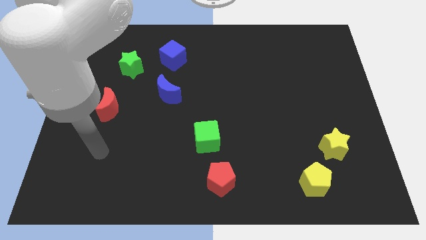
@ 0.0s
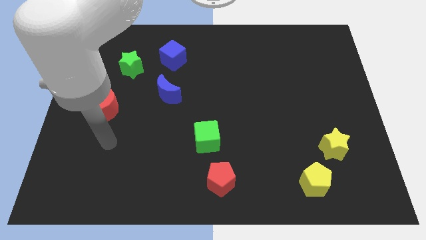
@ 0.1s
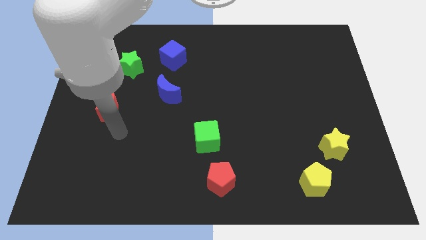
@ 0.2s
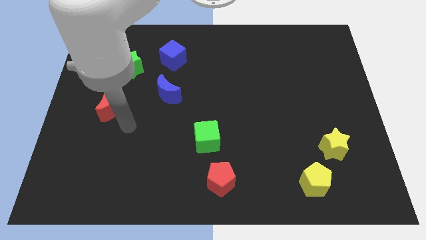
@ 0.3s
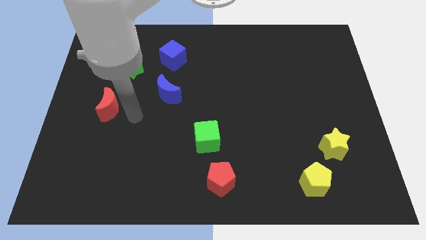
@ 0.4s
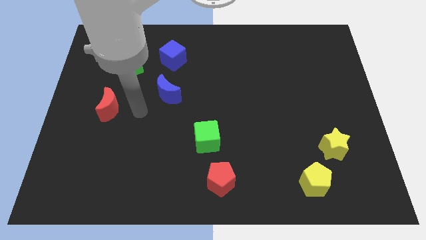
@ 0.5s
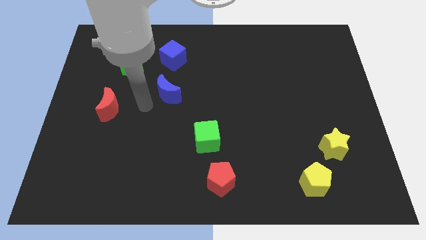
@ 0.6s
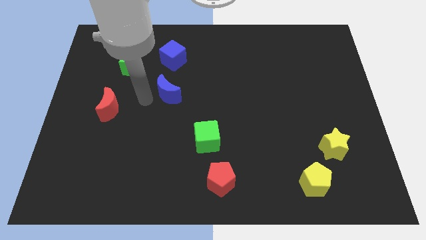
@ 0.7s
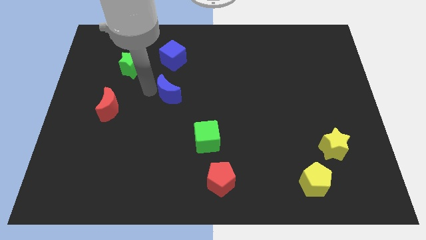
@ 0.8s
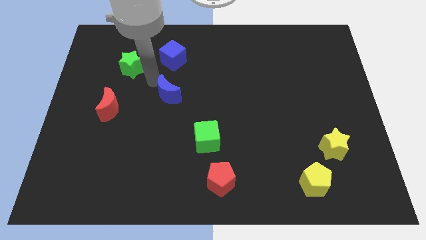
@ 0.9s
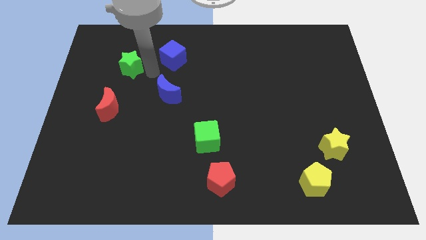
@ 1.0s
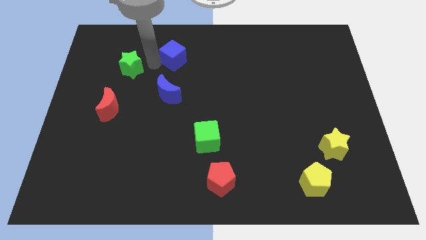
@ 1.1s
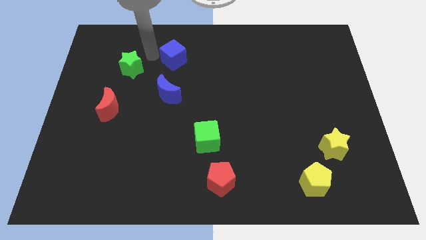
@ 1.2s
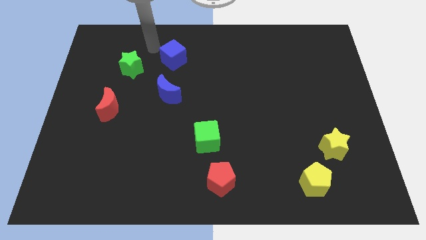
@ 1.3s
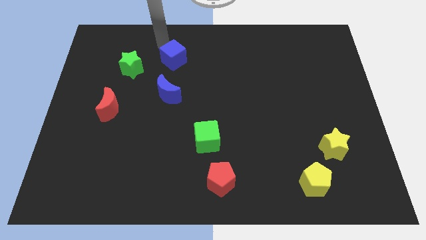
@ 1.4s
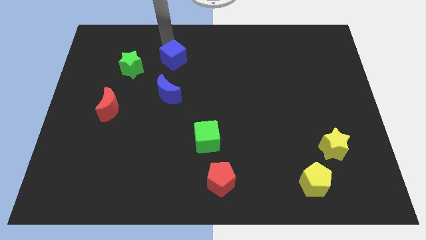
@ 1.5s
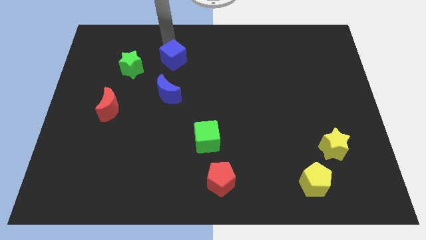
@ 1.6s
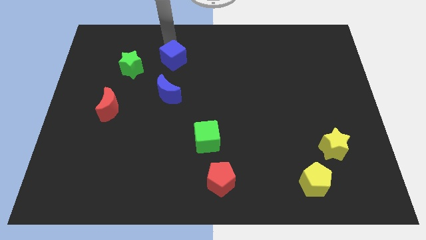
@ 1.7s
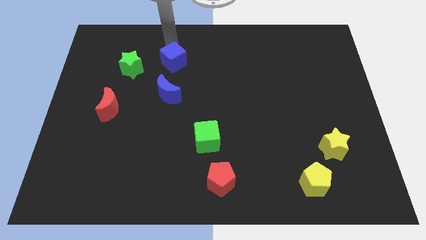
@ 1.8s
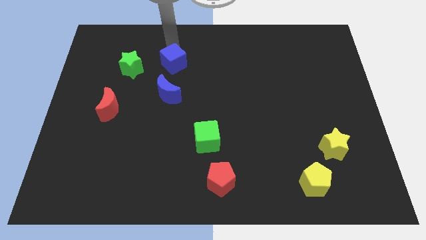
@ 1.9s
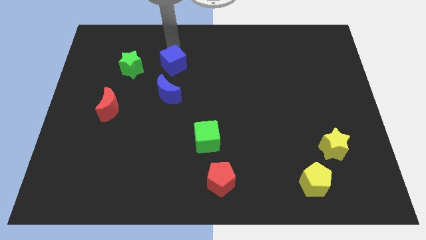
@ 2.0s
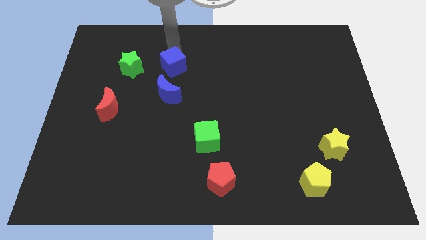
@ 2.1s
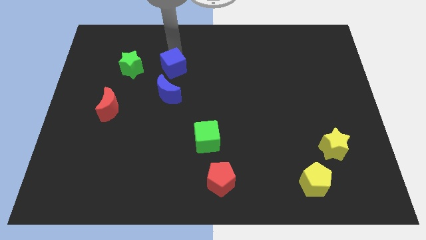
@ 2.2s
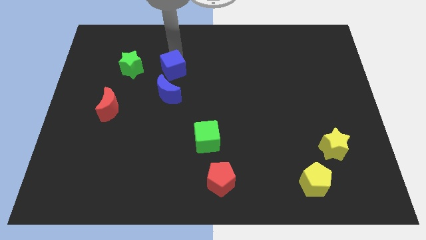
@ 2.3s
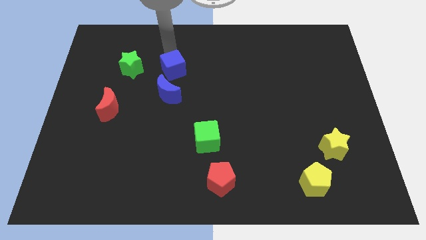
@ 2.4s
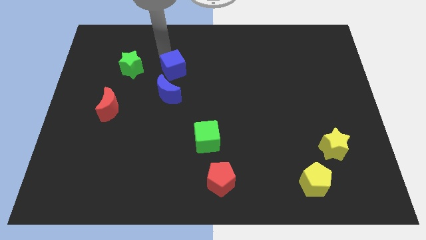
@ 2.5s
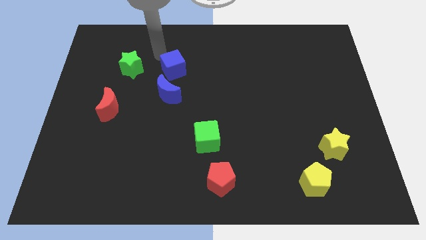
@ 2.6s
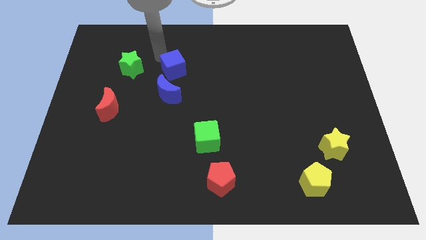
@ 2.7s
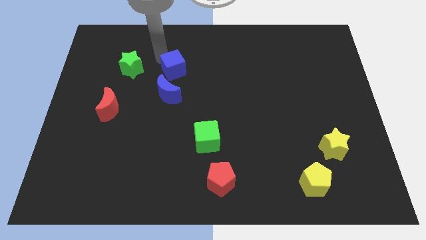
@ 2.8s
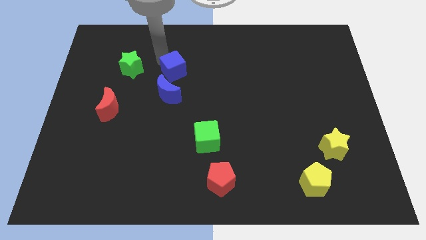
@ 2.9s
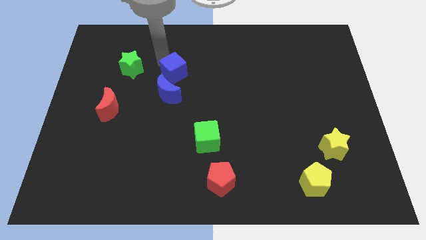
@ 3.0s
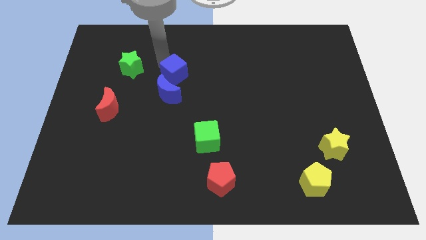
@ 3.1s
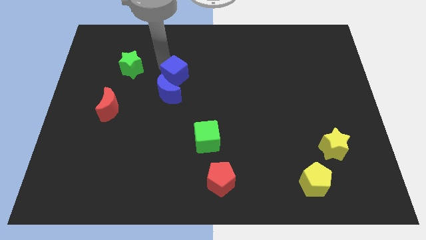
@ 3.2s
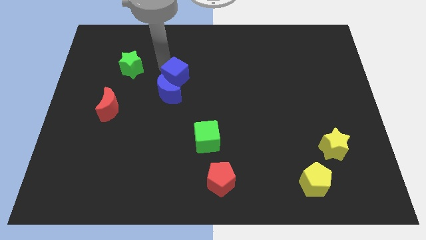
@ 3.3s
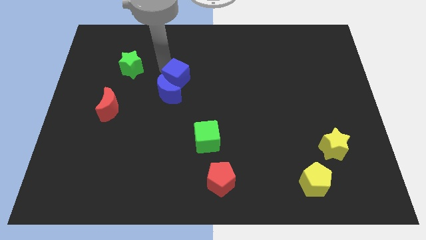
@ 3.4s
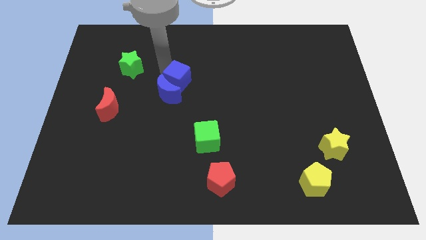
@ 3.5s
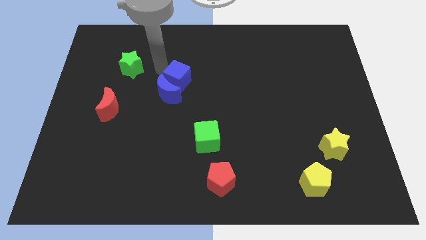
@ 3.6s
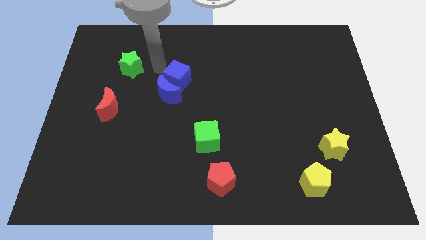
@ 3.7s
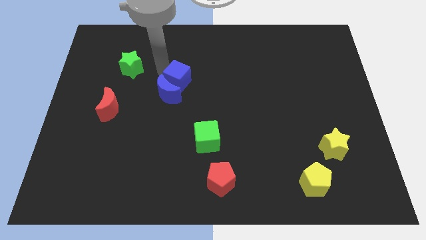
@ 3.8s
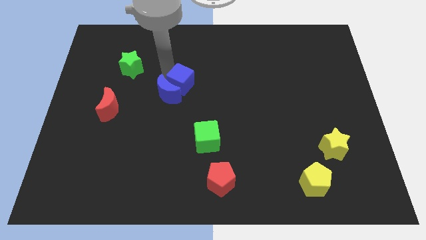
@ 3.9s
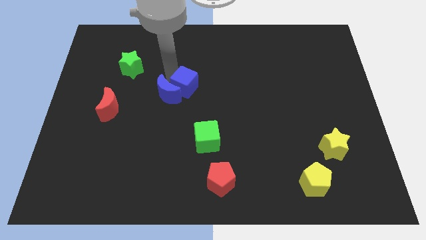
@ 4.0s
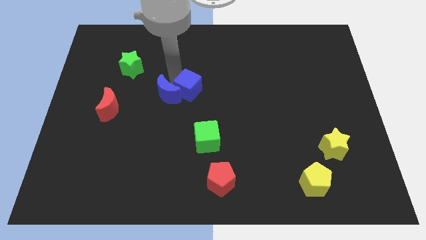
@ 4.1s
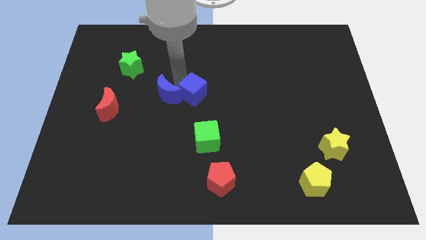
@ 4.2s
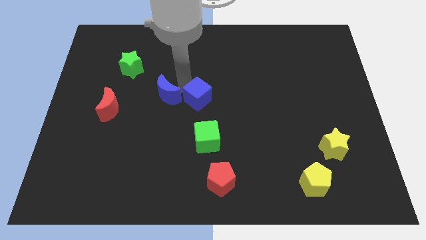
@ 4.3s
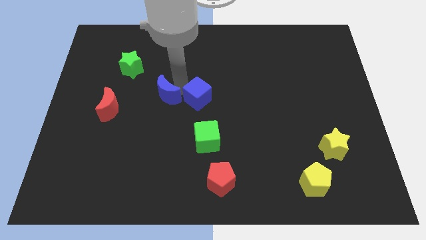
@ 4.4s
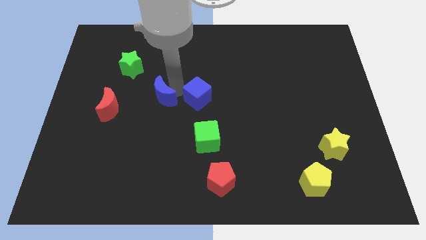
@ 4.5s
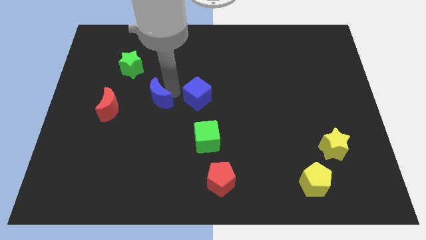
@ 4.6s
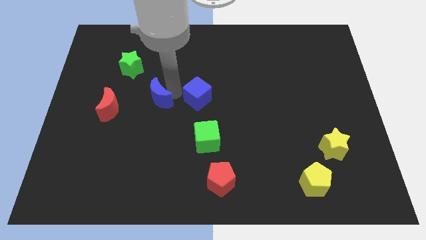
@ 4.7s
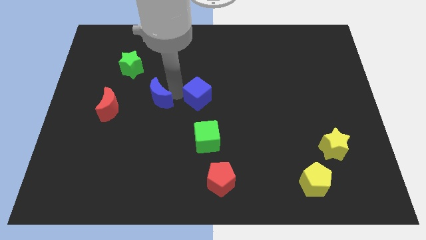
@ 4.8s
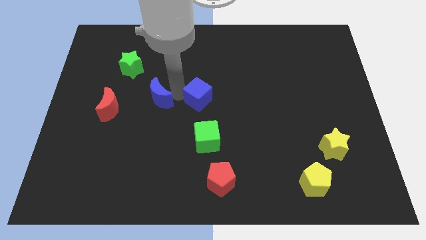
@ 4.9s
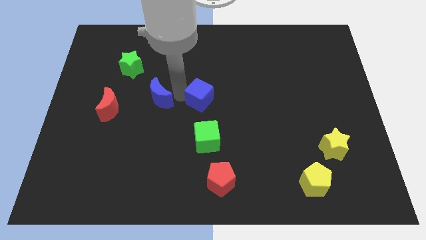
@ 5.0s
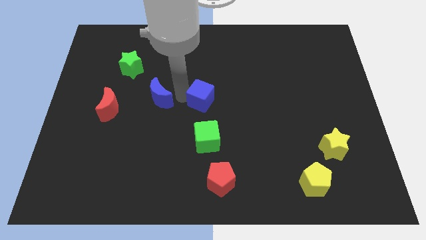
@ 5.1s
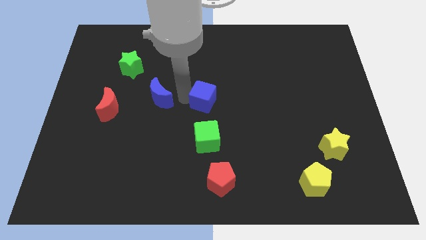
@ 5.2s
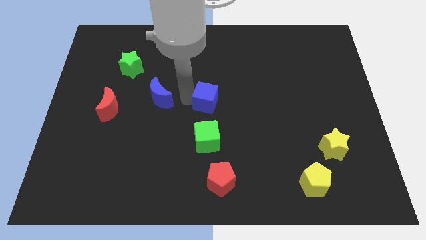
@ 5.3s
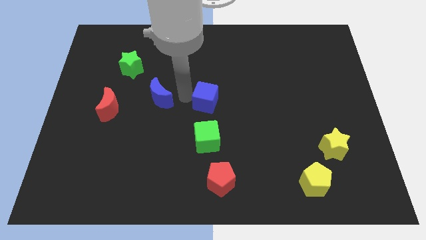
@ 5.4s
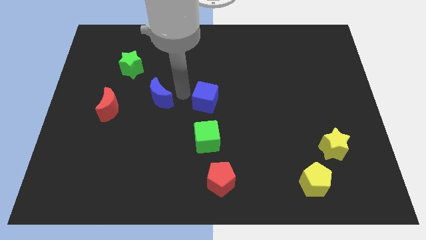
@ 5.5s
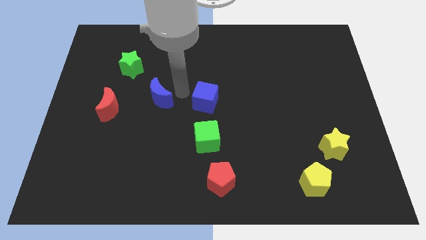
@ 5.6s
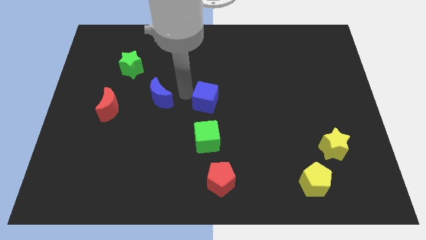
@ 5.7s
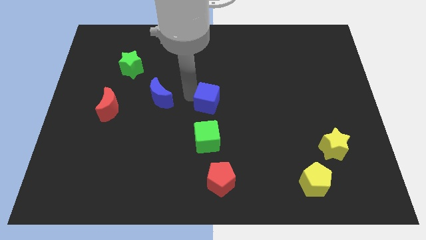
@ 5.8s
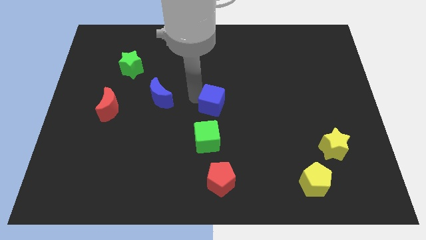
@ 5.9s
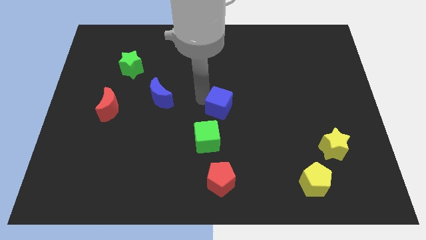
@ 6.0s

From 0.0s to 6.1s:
put the blue cube diagonally up and to the right of the green cube
